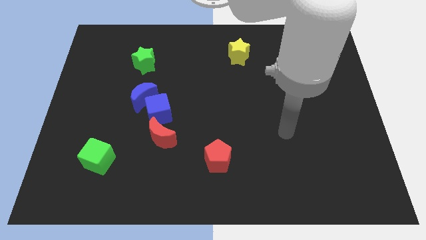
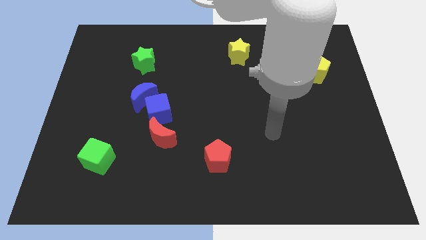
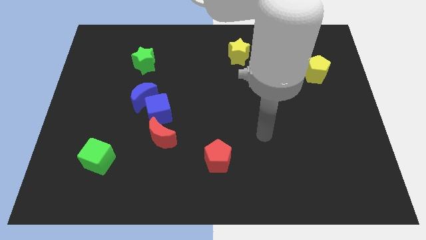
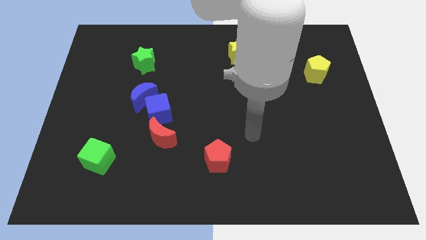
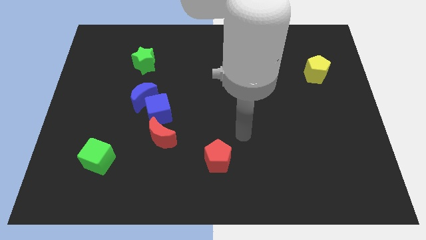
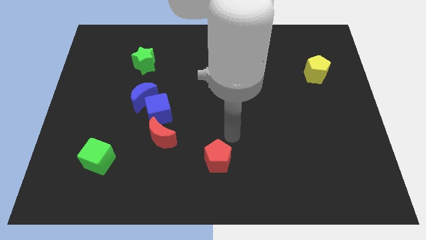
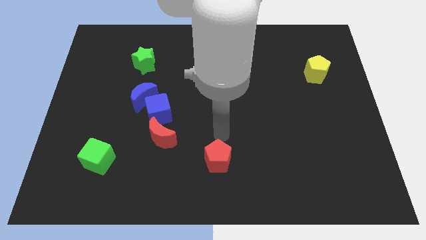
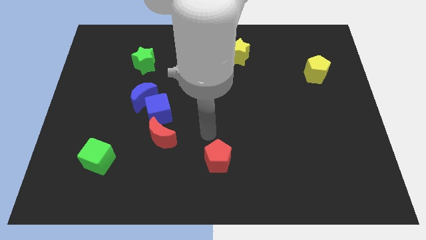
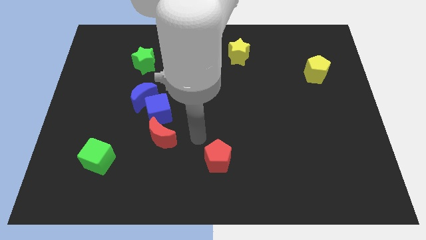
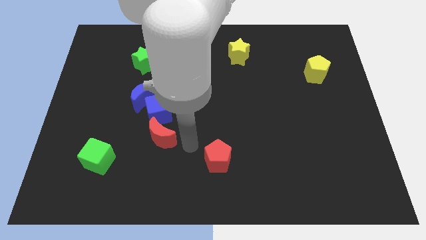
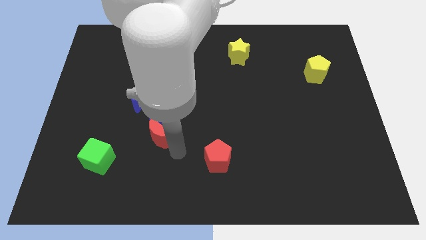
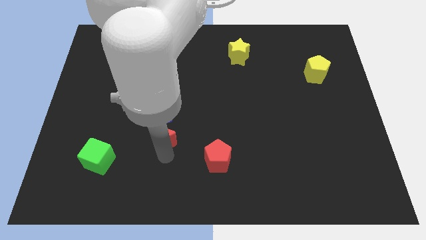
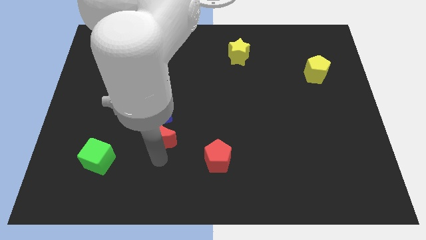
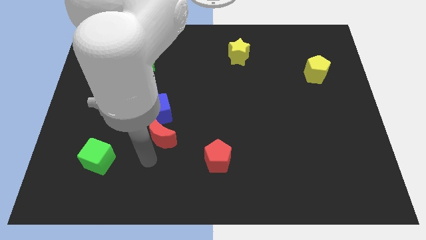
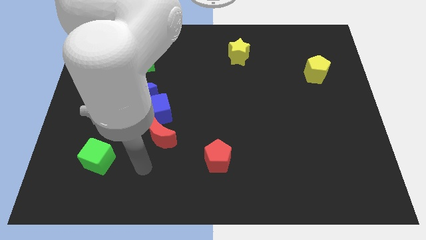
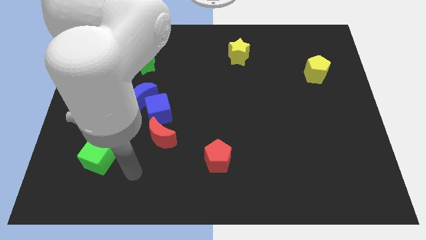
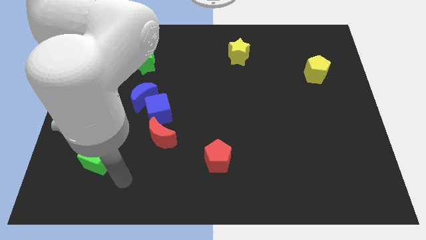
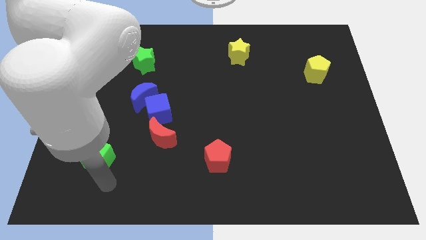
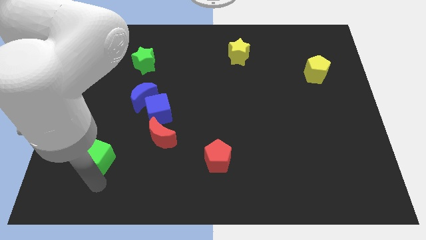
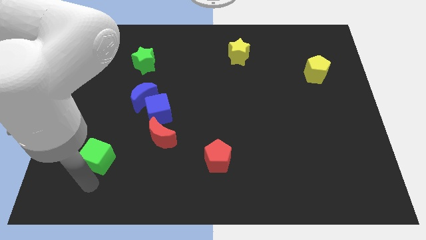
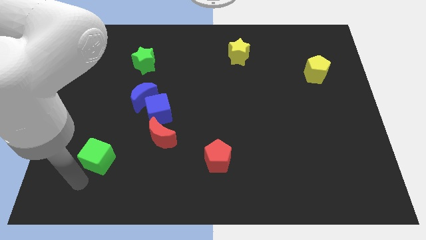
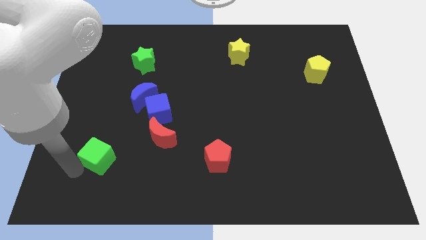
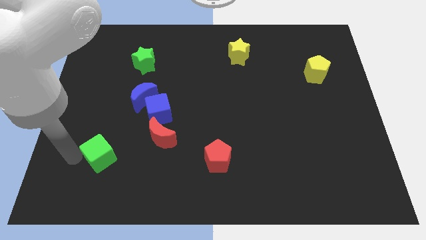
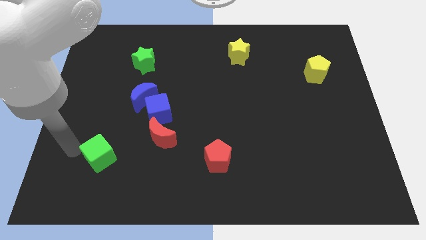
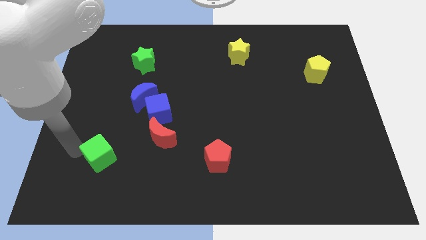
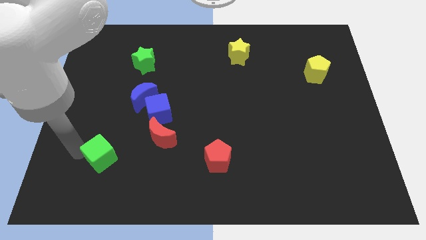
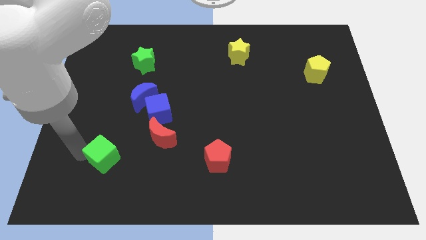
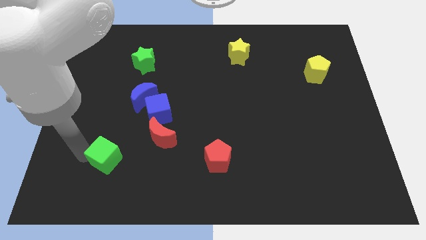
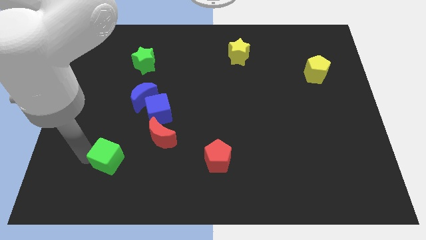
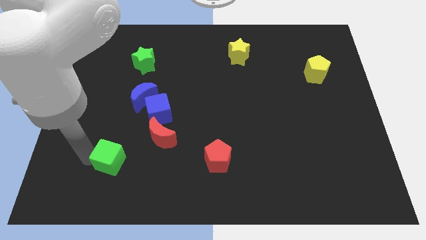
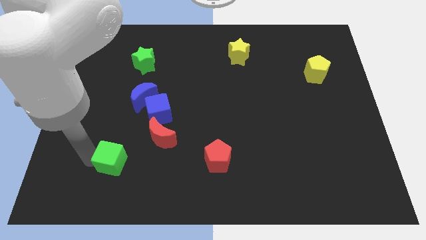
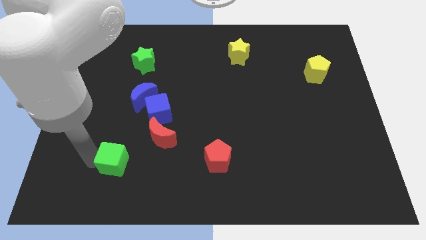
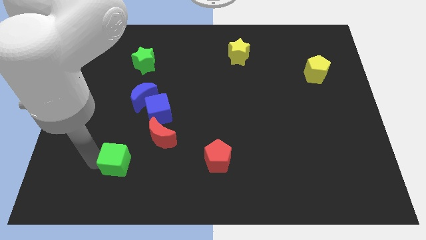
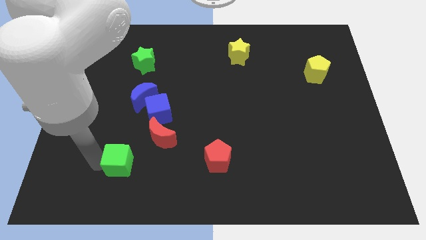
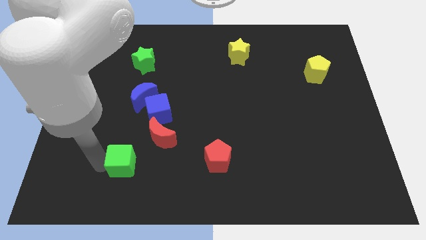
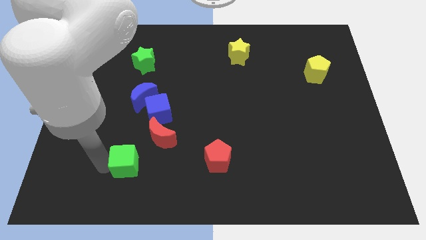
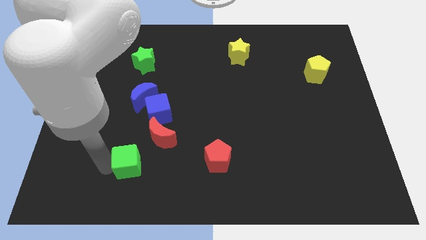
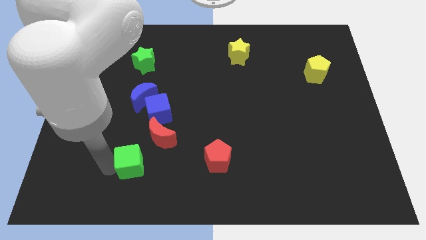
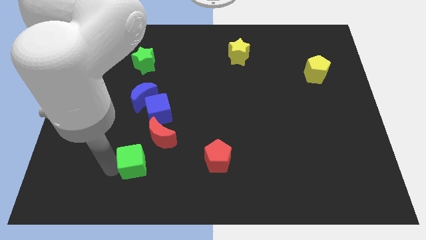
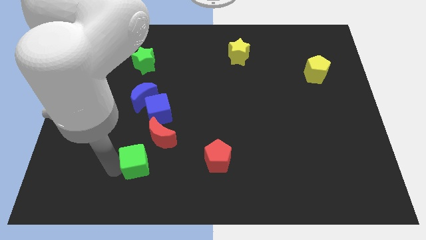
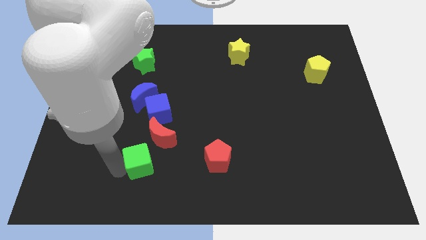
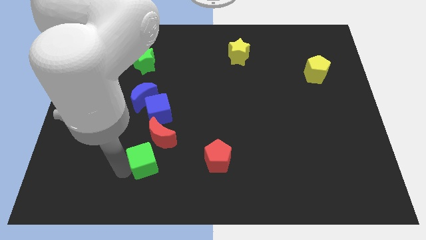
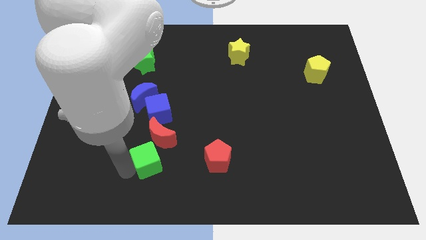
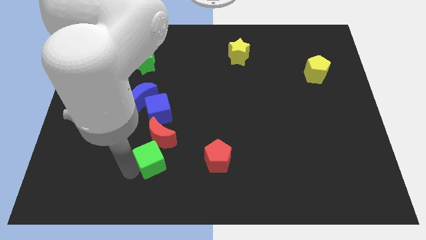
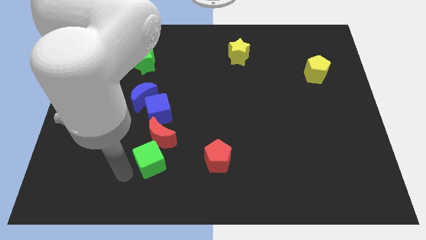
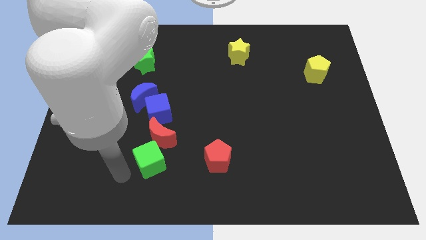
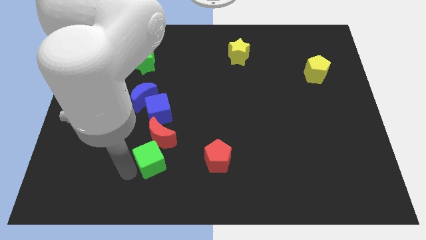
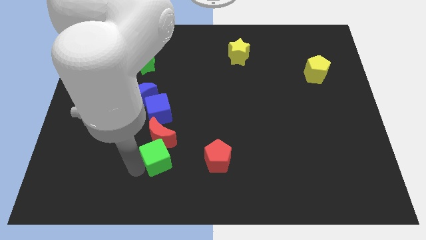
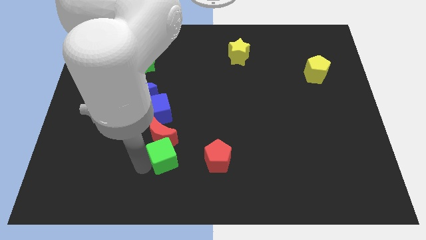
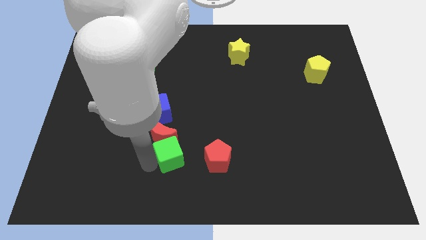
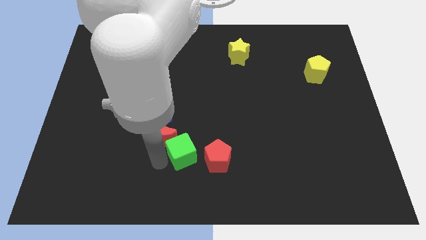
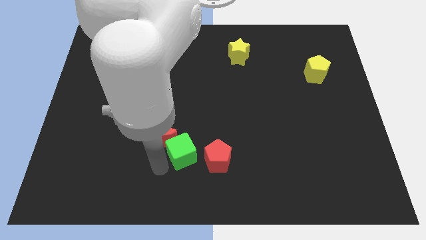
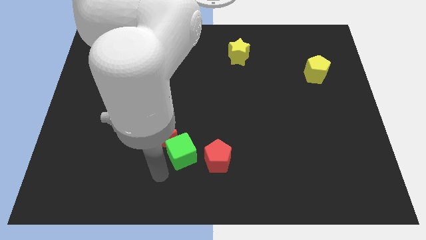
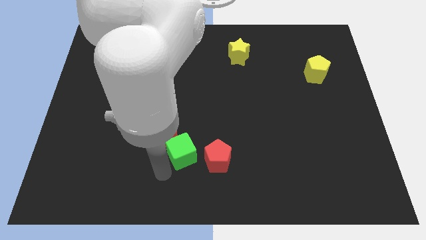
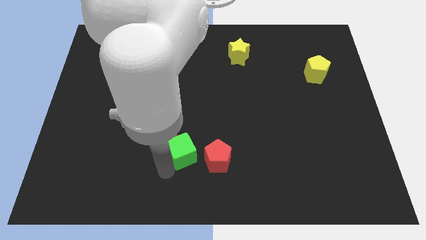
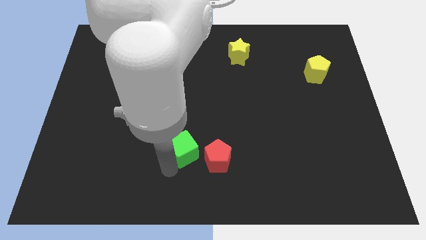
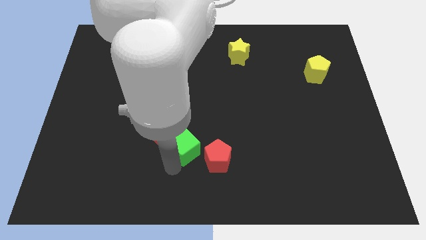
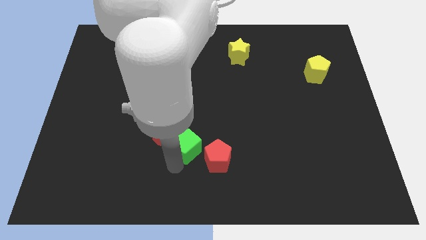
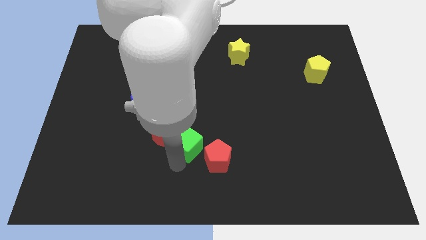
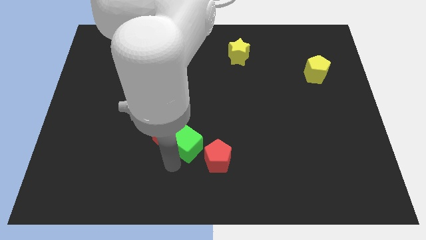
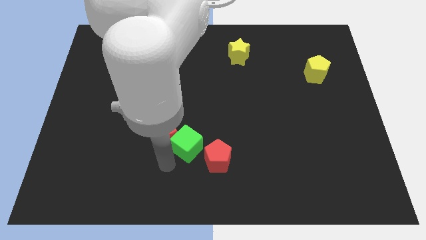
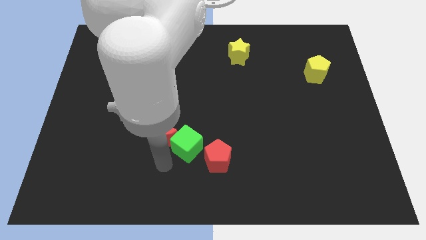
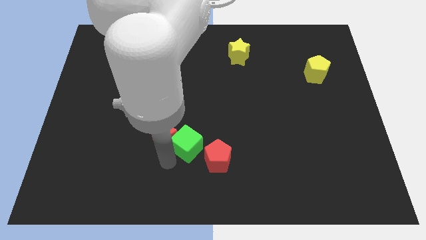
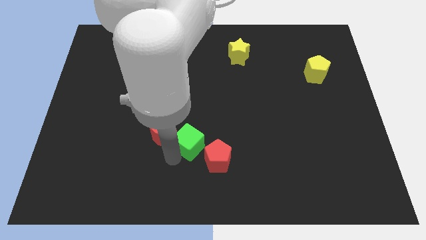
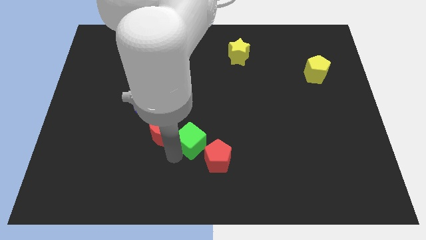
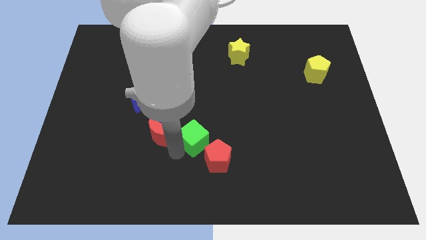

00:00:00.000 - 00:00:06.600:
put the green cube to the middle of the board
